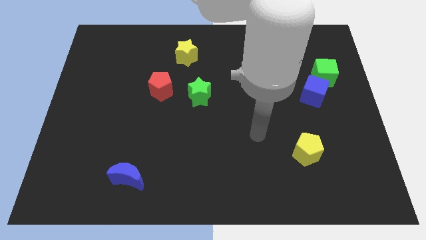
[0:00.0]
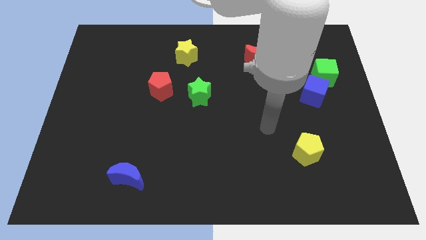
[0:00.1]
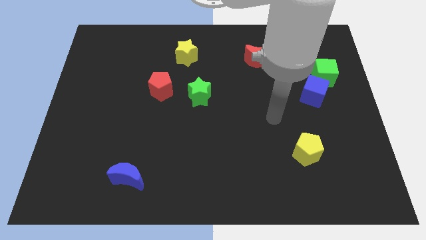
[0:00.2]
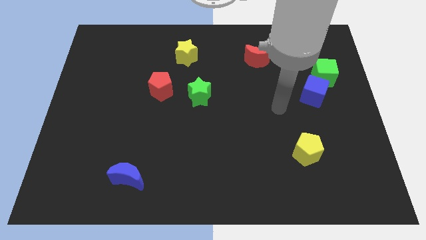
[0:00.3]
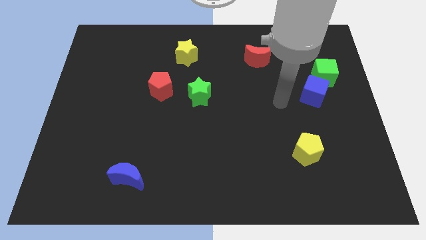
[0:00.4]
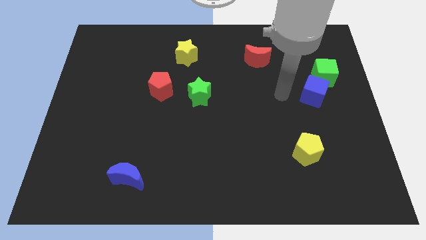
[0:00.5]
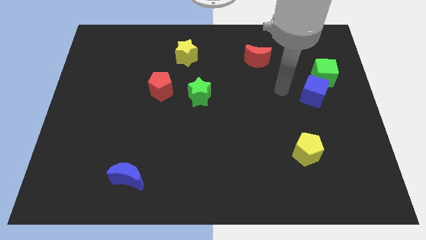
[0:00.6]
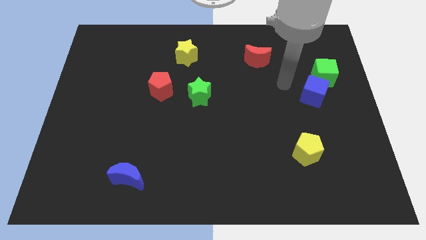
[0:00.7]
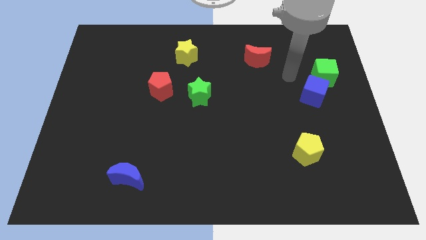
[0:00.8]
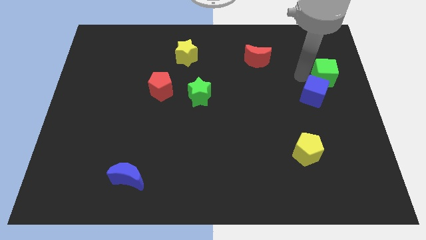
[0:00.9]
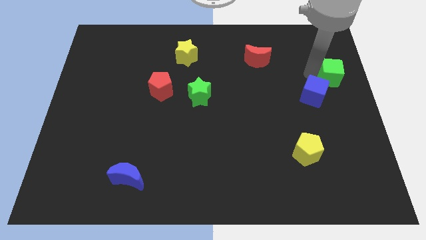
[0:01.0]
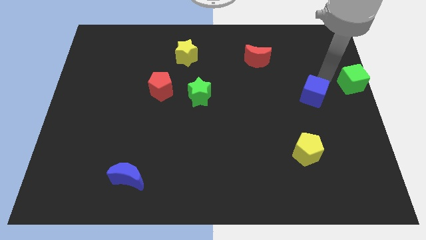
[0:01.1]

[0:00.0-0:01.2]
separate the blue cube from the green cube

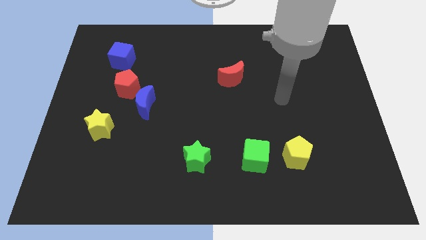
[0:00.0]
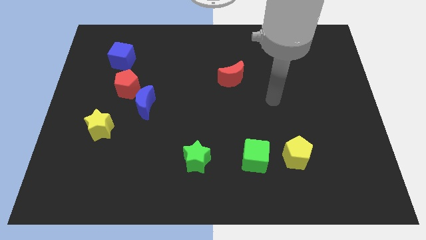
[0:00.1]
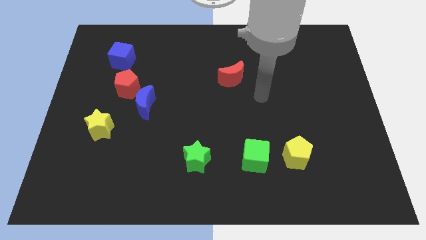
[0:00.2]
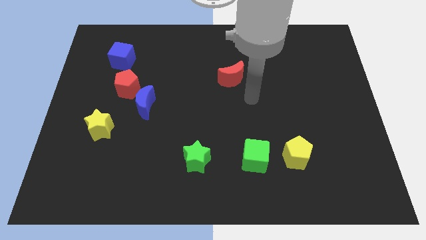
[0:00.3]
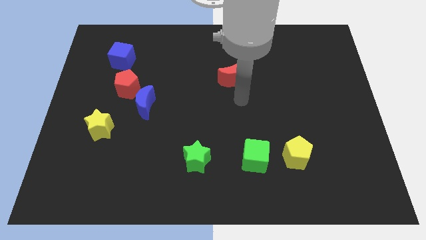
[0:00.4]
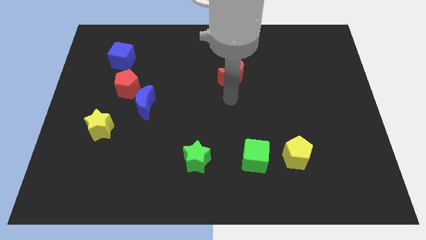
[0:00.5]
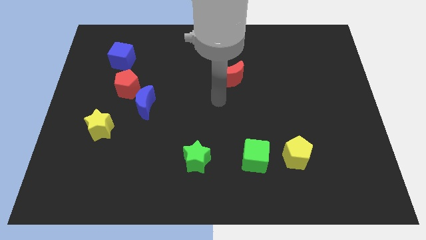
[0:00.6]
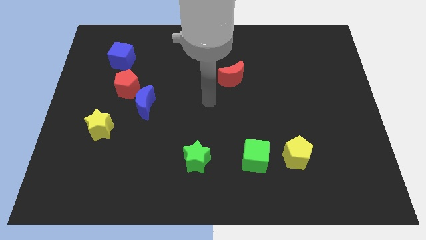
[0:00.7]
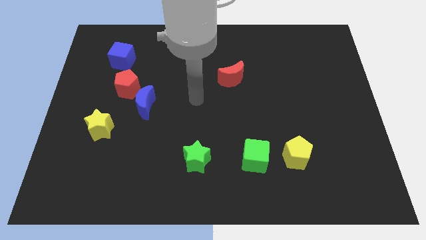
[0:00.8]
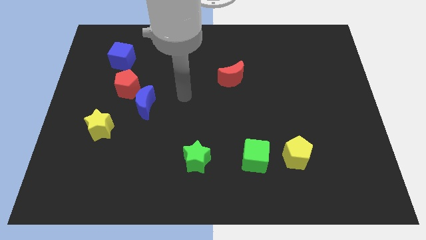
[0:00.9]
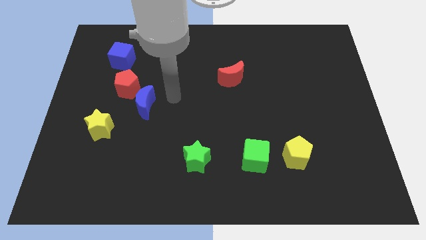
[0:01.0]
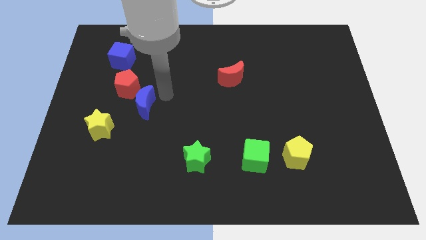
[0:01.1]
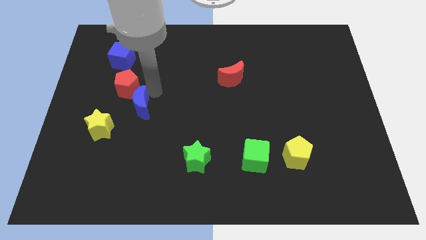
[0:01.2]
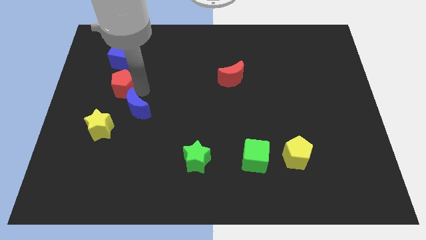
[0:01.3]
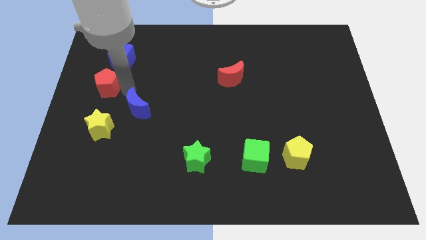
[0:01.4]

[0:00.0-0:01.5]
pull the blue moon apart from the red pentagon

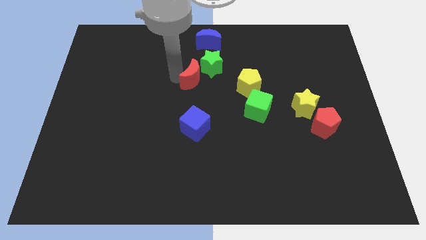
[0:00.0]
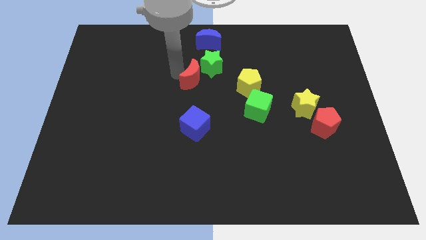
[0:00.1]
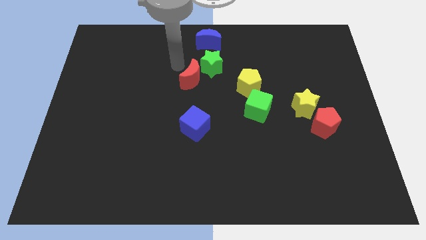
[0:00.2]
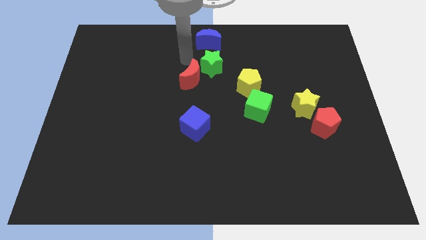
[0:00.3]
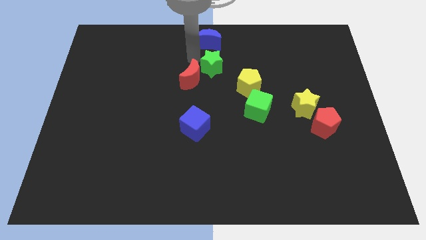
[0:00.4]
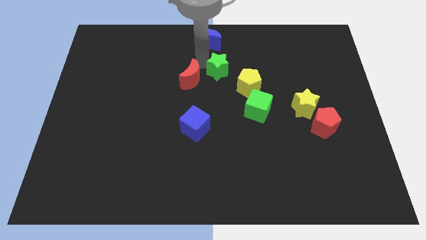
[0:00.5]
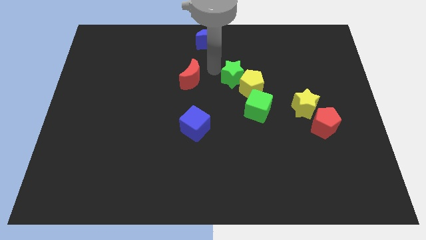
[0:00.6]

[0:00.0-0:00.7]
separate the red moon from the green star

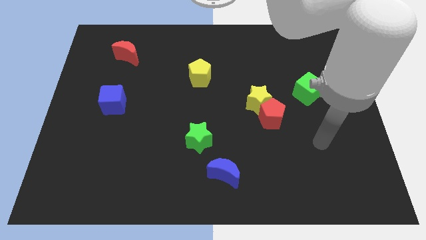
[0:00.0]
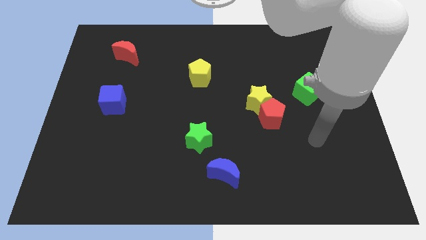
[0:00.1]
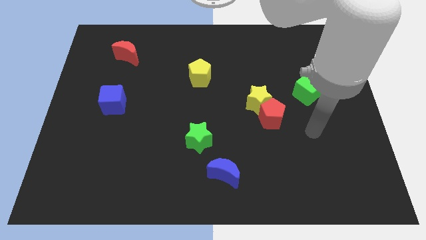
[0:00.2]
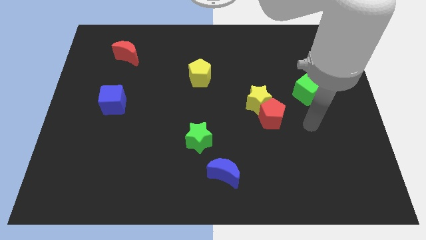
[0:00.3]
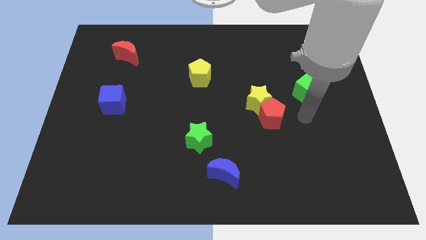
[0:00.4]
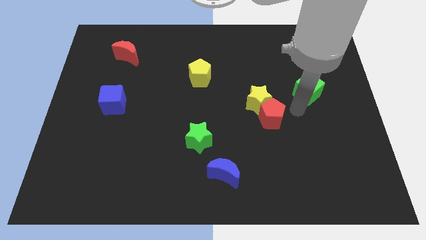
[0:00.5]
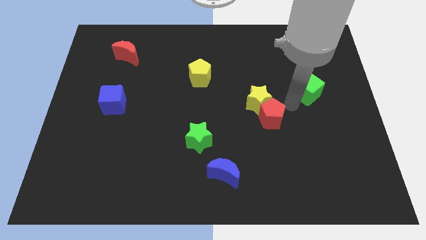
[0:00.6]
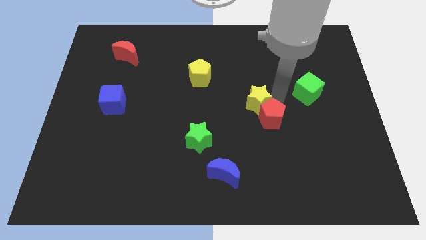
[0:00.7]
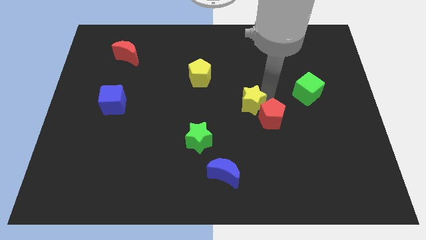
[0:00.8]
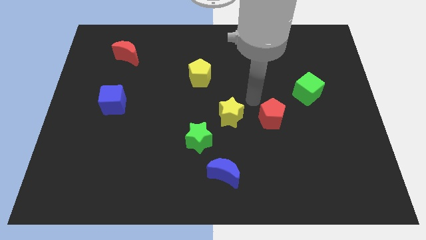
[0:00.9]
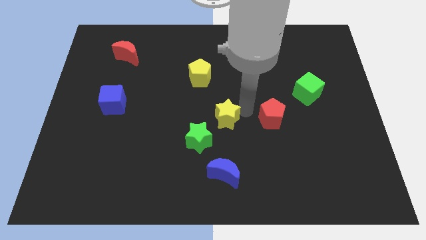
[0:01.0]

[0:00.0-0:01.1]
move the red pentagon away from the yellow star

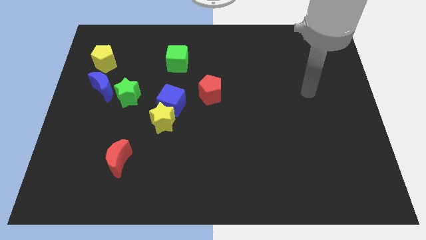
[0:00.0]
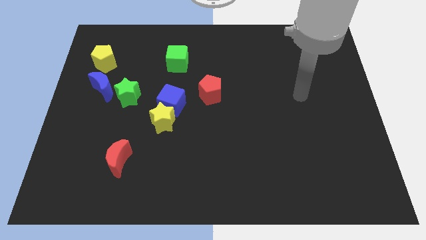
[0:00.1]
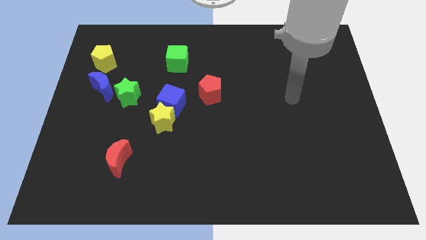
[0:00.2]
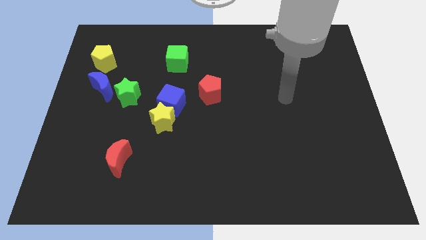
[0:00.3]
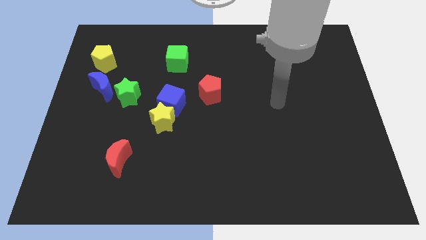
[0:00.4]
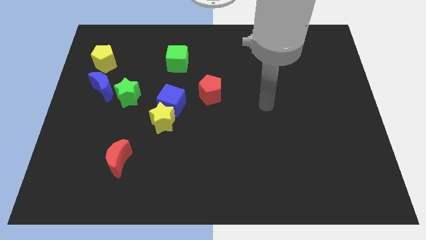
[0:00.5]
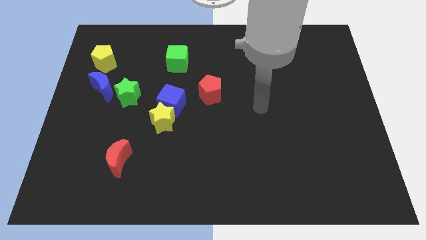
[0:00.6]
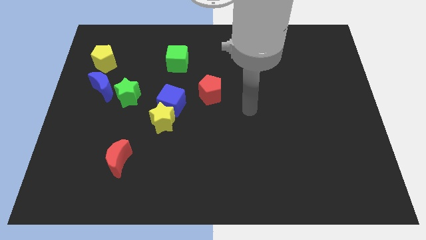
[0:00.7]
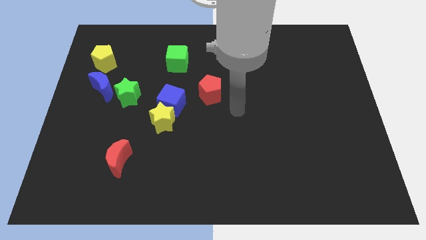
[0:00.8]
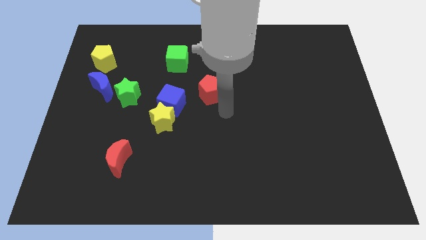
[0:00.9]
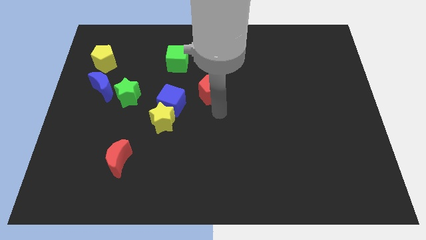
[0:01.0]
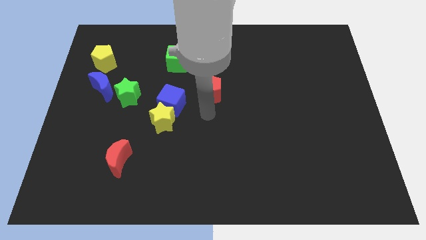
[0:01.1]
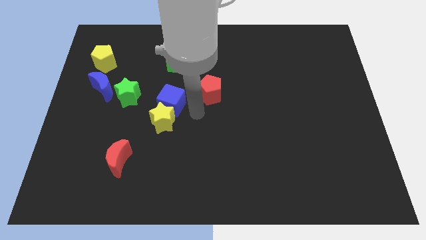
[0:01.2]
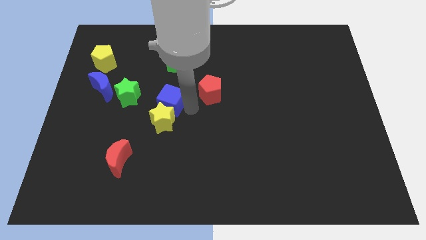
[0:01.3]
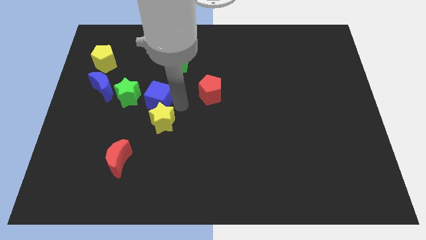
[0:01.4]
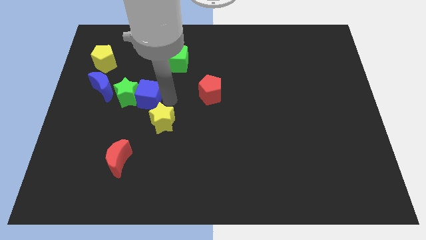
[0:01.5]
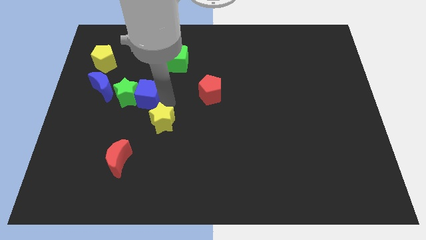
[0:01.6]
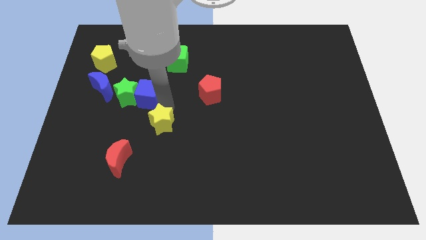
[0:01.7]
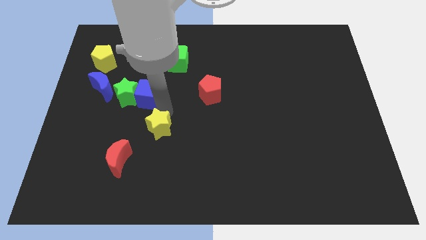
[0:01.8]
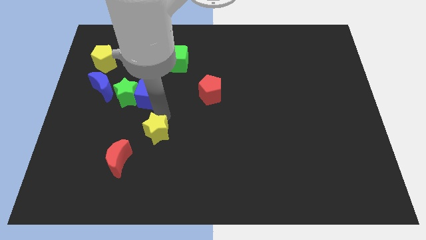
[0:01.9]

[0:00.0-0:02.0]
pull the yellow star apart from the blue cube

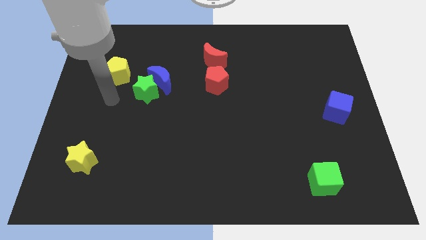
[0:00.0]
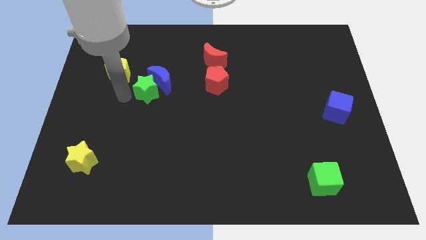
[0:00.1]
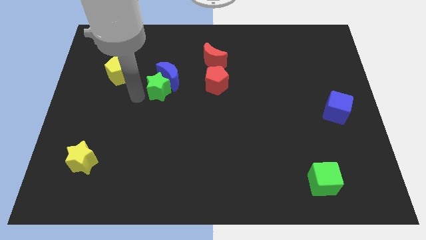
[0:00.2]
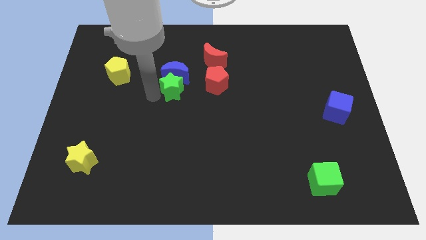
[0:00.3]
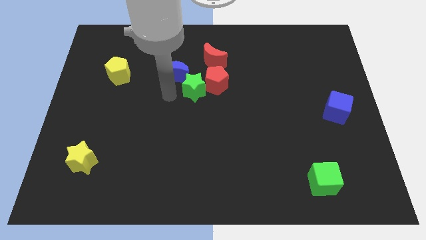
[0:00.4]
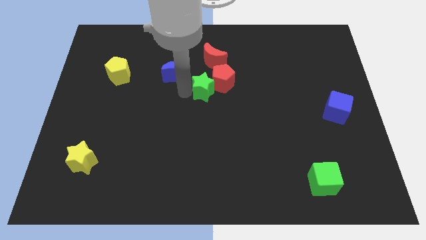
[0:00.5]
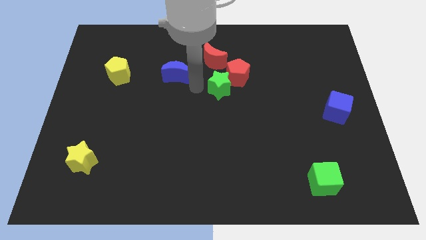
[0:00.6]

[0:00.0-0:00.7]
pull the blue moon apart from the green star

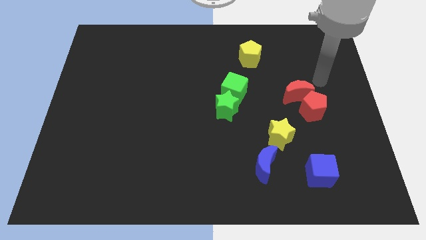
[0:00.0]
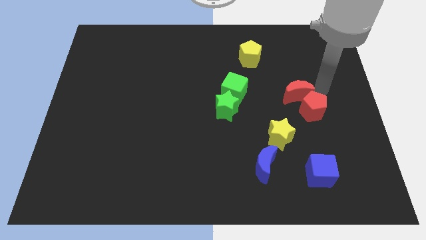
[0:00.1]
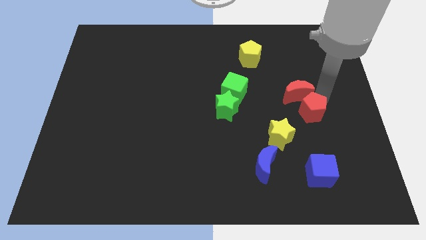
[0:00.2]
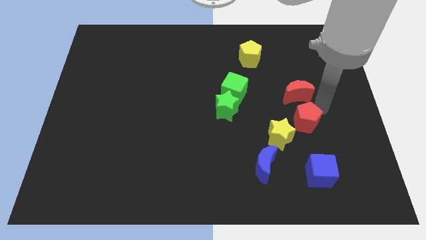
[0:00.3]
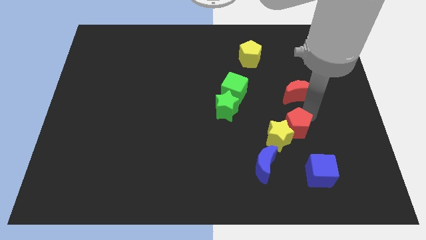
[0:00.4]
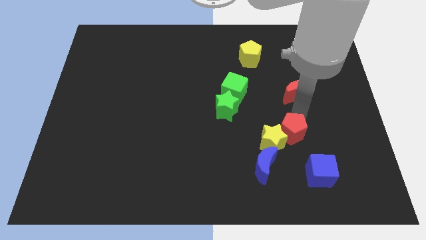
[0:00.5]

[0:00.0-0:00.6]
separate the red moon from the red pentagon

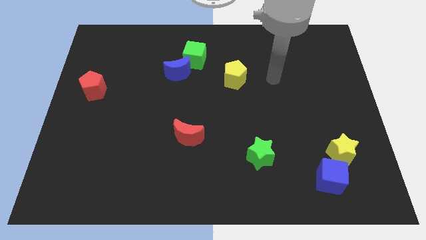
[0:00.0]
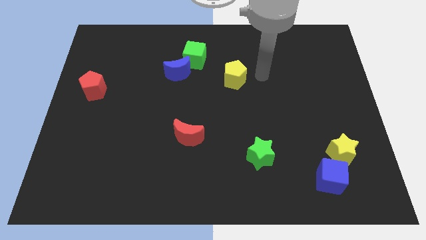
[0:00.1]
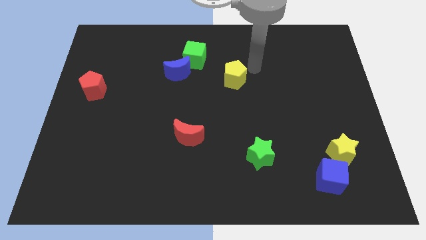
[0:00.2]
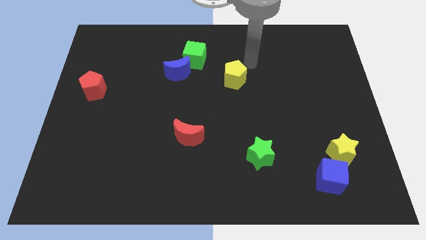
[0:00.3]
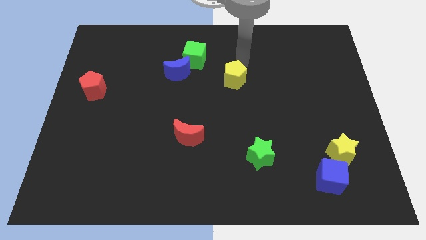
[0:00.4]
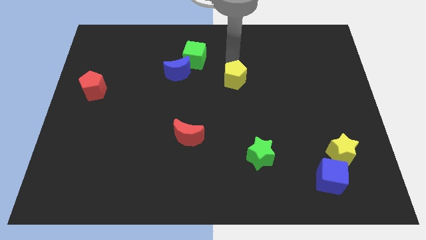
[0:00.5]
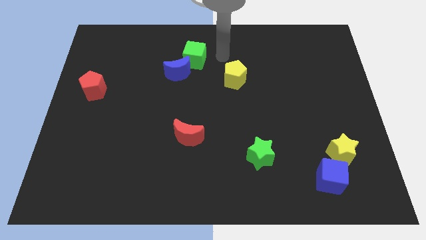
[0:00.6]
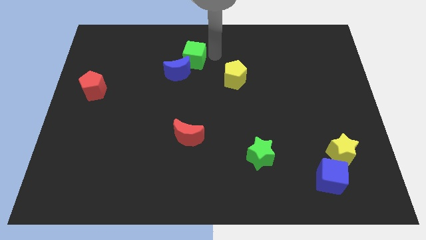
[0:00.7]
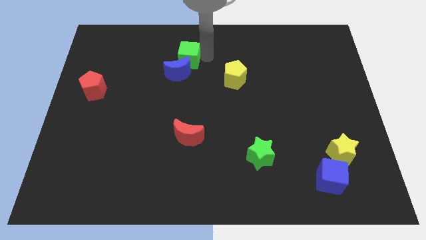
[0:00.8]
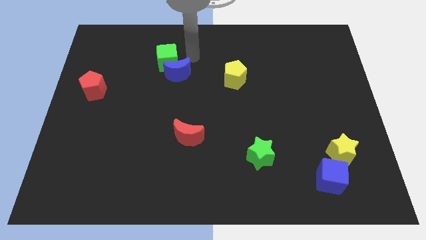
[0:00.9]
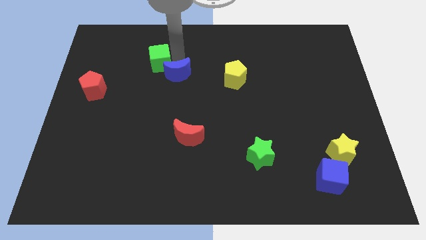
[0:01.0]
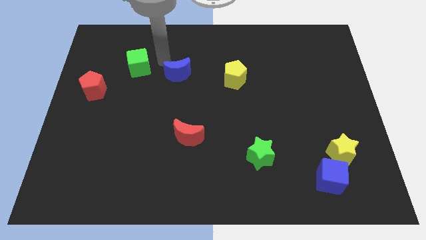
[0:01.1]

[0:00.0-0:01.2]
separate the blue moon from the green cube

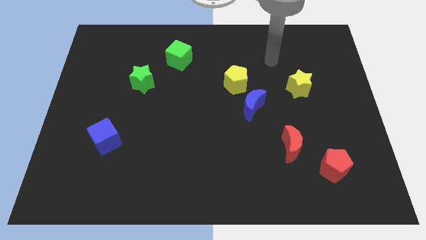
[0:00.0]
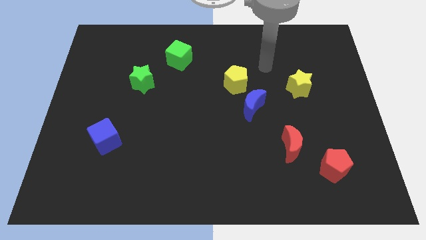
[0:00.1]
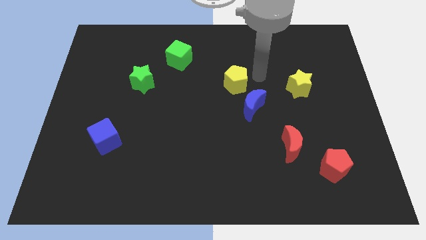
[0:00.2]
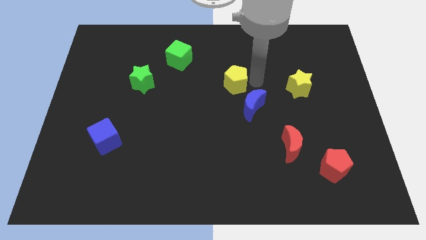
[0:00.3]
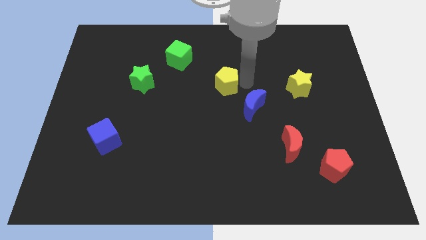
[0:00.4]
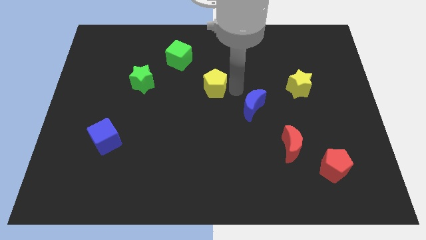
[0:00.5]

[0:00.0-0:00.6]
pull the blue moon apart from the yellow pentagon
